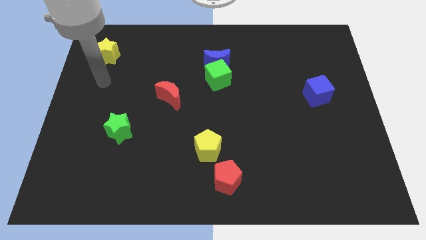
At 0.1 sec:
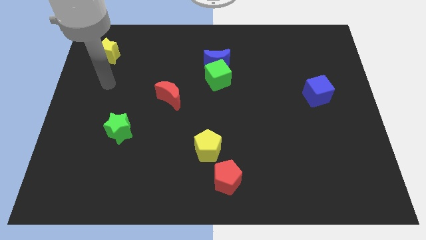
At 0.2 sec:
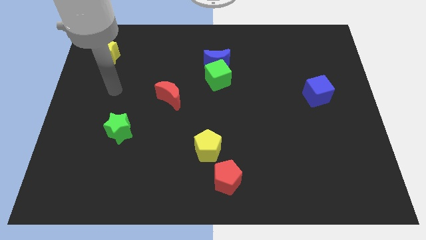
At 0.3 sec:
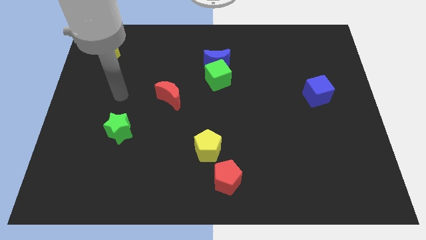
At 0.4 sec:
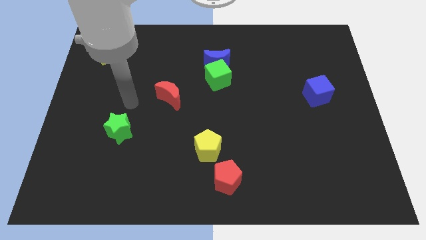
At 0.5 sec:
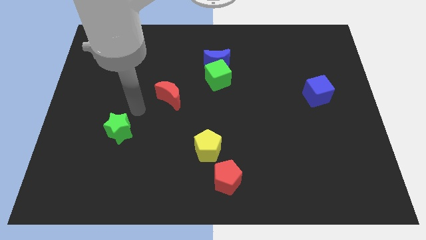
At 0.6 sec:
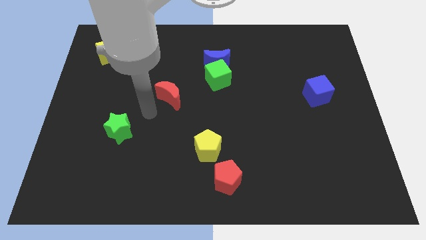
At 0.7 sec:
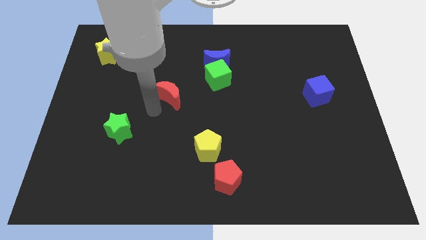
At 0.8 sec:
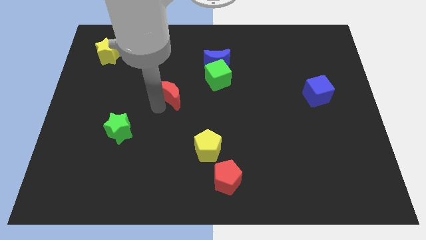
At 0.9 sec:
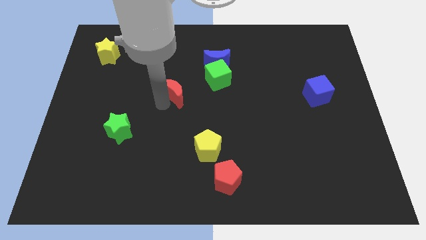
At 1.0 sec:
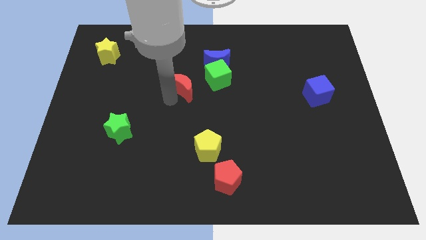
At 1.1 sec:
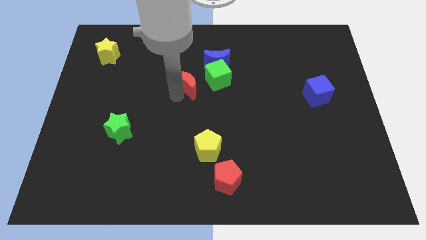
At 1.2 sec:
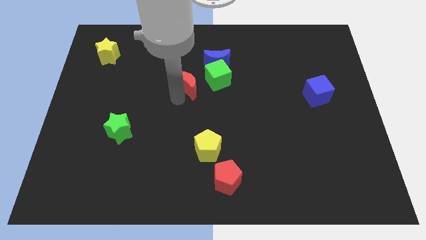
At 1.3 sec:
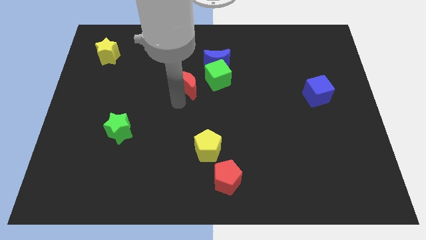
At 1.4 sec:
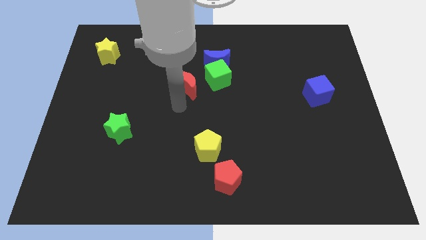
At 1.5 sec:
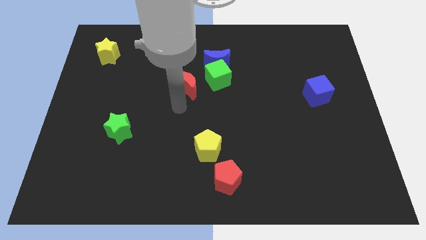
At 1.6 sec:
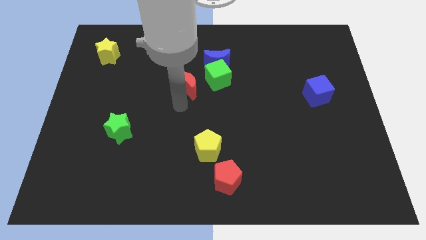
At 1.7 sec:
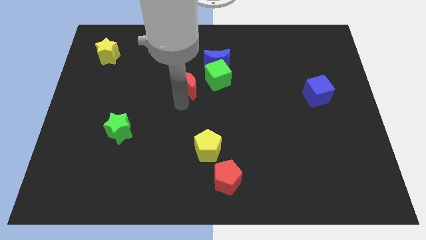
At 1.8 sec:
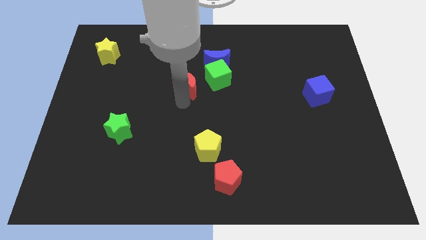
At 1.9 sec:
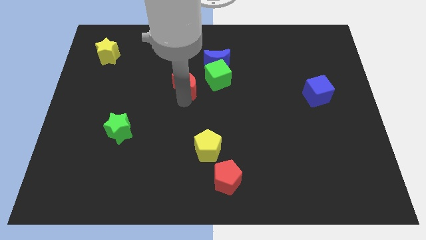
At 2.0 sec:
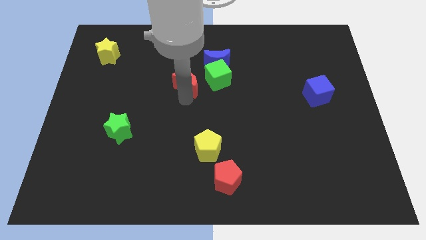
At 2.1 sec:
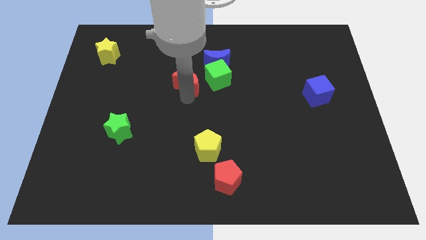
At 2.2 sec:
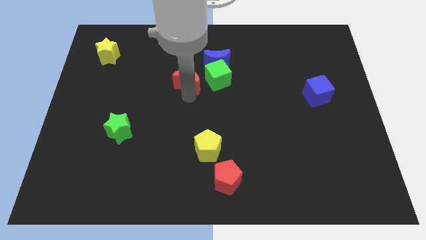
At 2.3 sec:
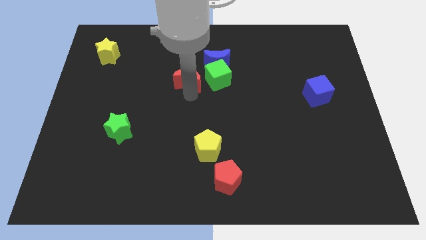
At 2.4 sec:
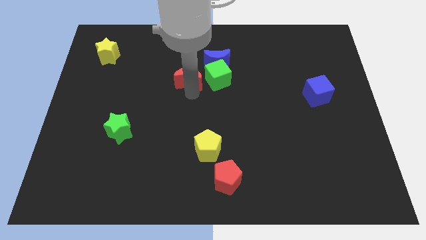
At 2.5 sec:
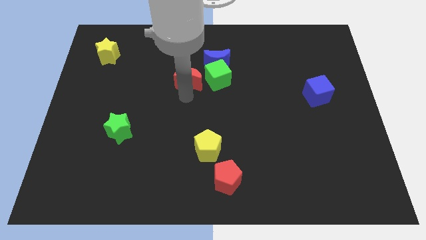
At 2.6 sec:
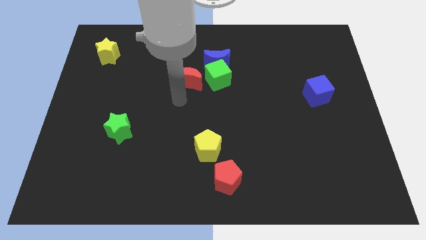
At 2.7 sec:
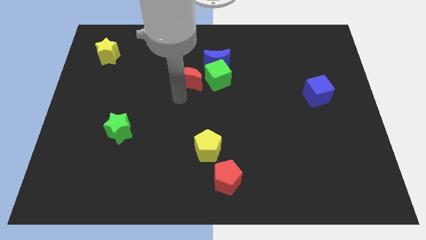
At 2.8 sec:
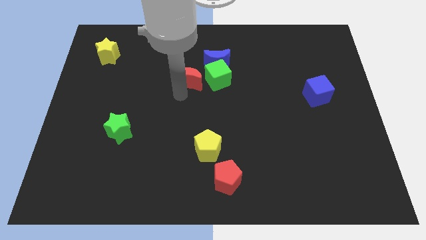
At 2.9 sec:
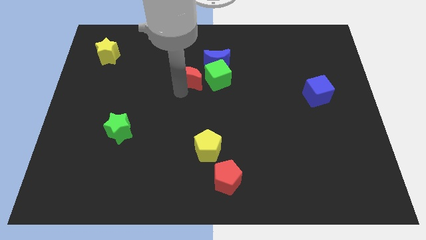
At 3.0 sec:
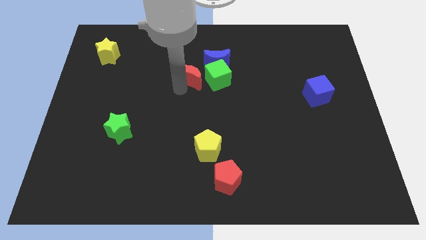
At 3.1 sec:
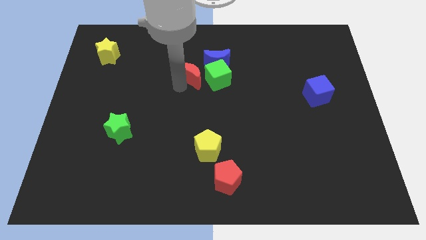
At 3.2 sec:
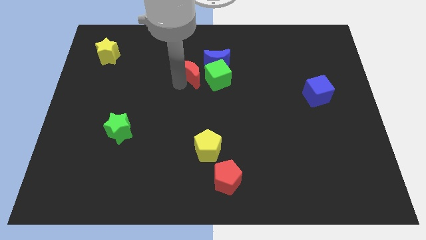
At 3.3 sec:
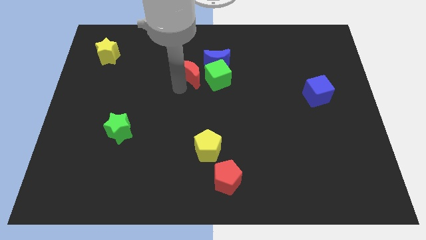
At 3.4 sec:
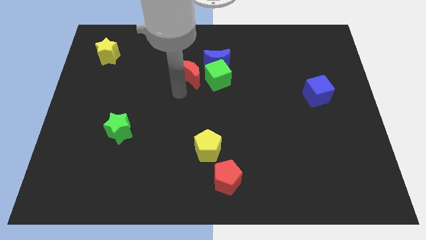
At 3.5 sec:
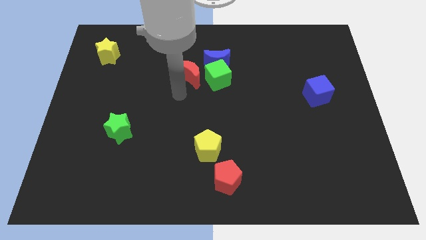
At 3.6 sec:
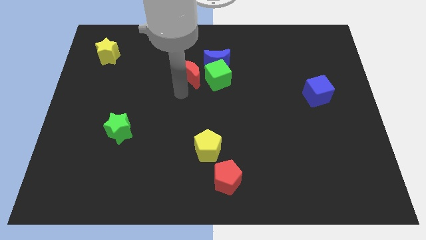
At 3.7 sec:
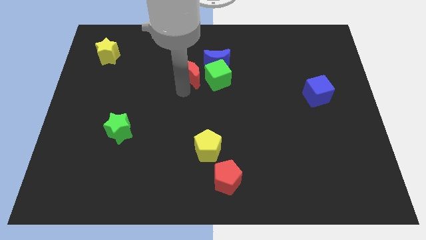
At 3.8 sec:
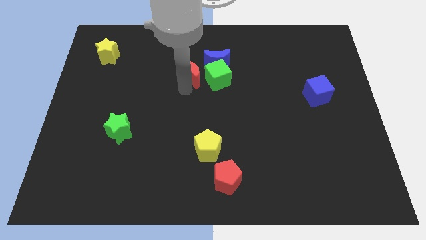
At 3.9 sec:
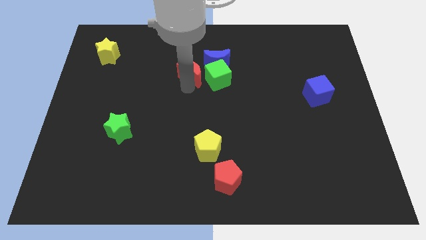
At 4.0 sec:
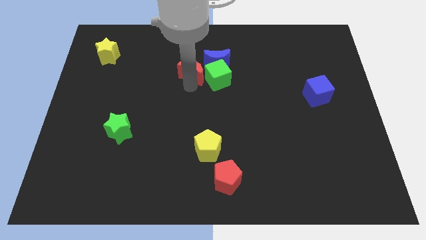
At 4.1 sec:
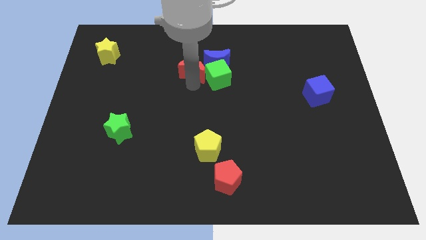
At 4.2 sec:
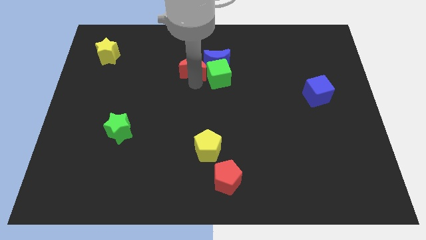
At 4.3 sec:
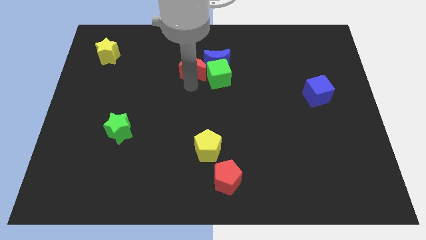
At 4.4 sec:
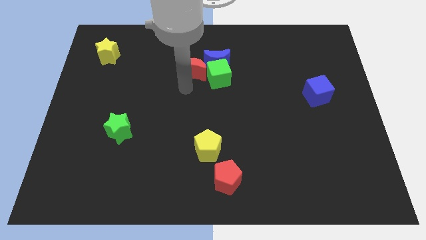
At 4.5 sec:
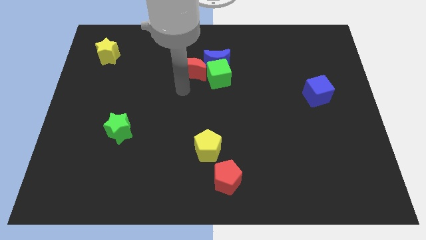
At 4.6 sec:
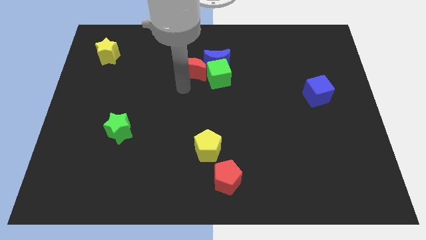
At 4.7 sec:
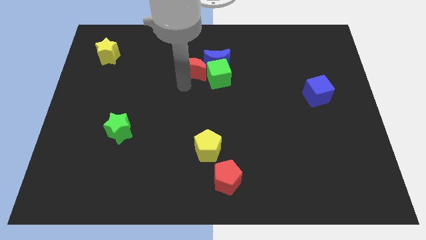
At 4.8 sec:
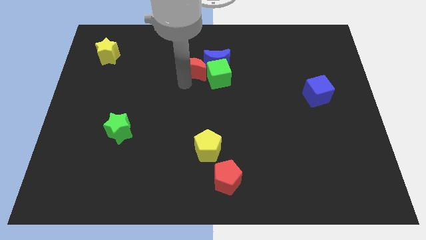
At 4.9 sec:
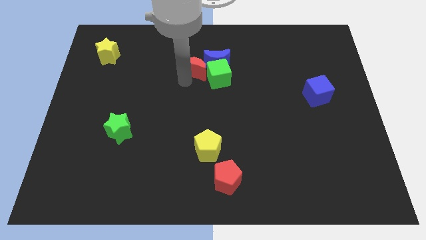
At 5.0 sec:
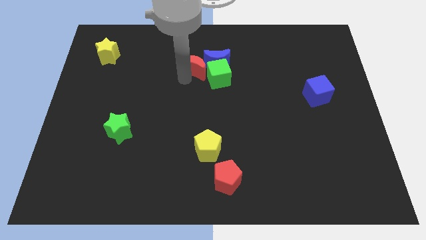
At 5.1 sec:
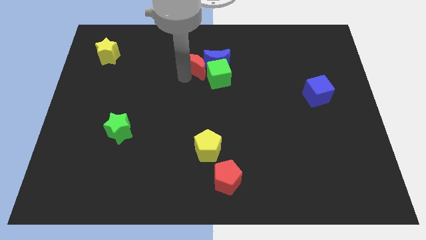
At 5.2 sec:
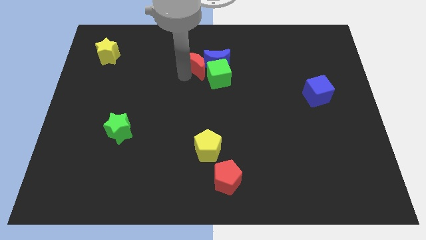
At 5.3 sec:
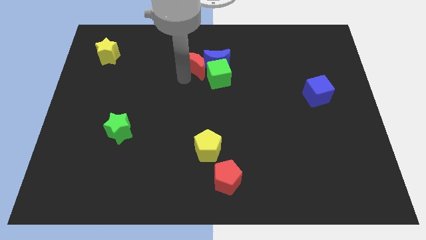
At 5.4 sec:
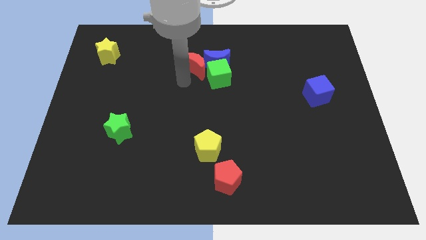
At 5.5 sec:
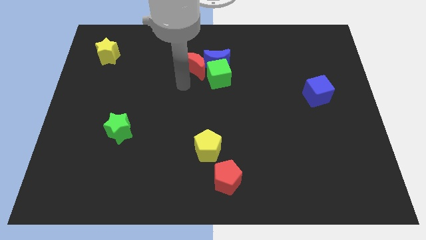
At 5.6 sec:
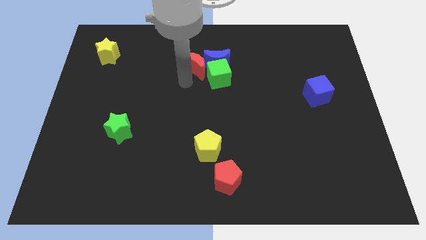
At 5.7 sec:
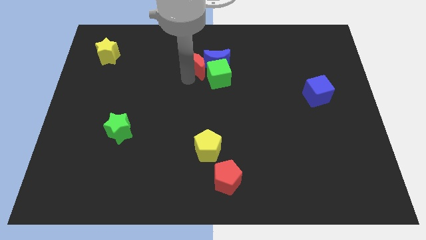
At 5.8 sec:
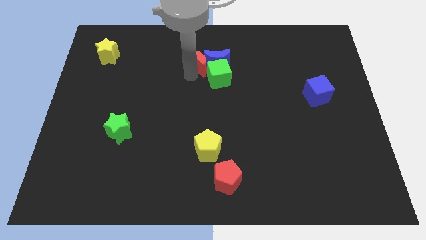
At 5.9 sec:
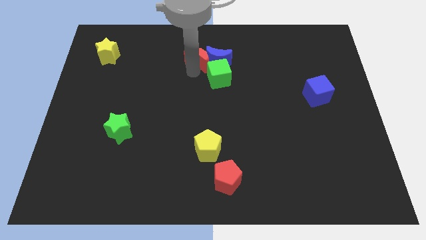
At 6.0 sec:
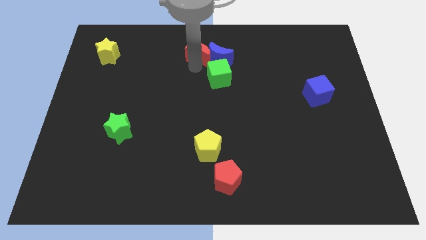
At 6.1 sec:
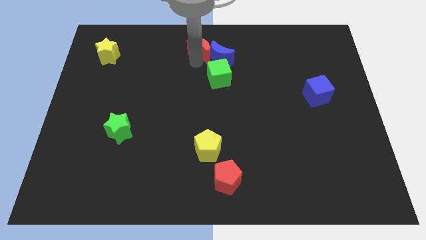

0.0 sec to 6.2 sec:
move the red moon to the top side
